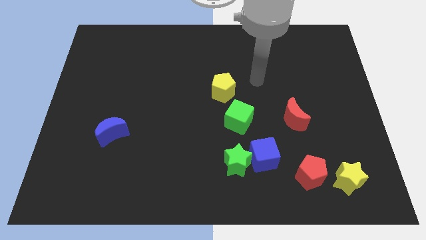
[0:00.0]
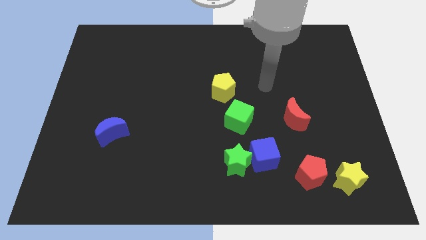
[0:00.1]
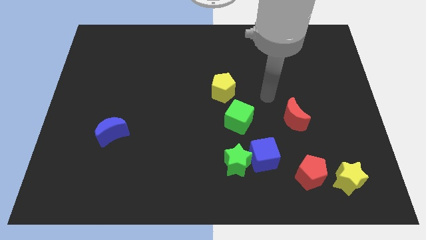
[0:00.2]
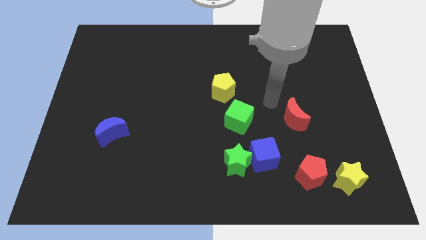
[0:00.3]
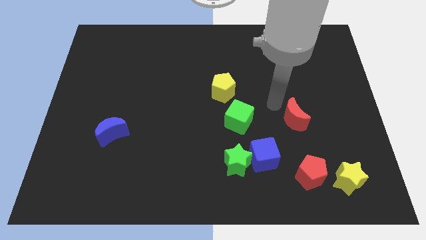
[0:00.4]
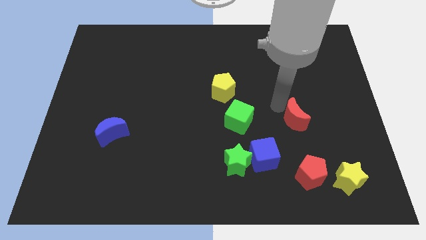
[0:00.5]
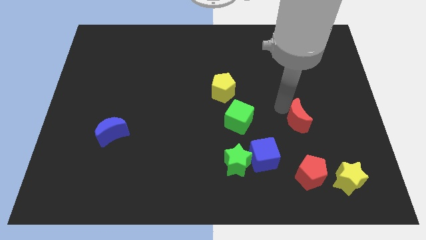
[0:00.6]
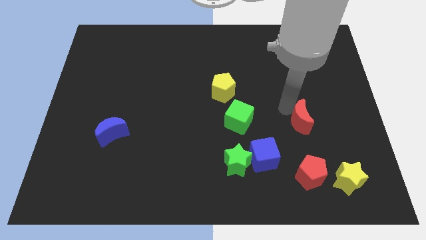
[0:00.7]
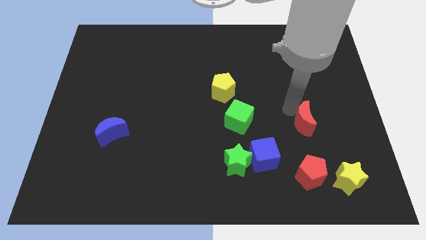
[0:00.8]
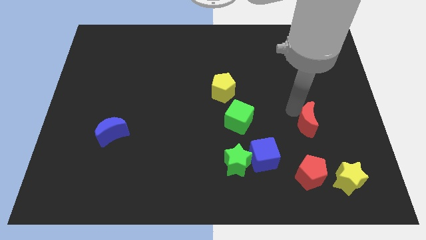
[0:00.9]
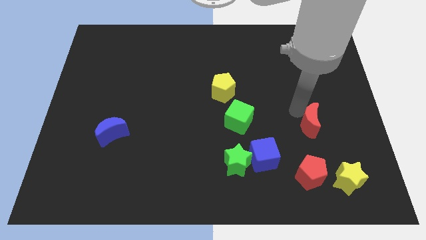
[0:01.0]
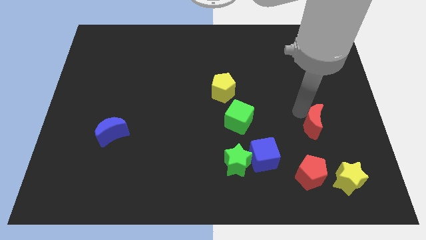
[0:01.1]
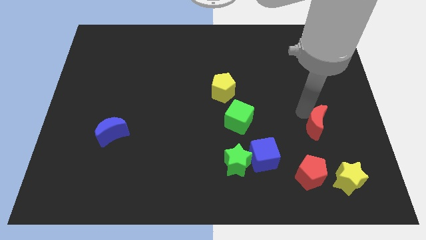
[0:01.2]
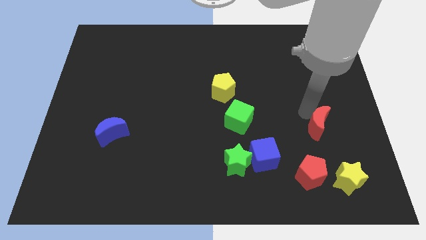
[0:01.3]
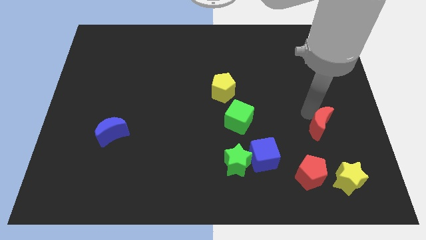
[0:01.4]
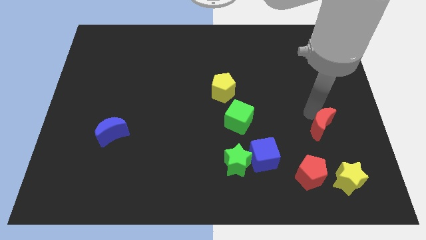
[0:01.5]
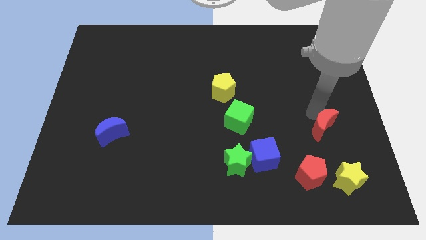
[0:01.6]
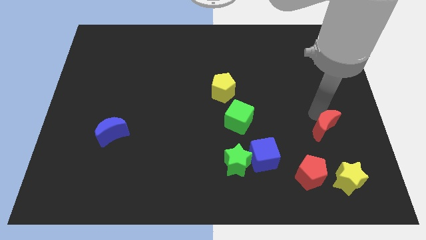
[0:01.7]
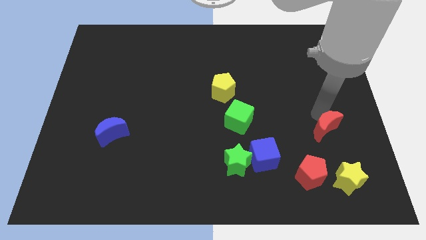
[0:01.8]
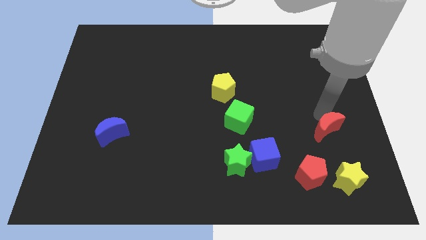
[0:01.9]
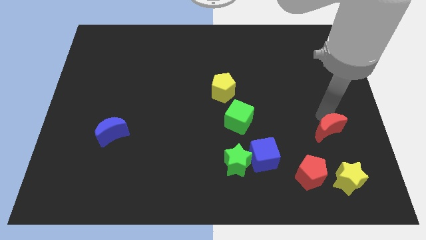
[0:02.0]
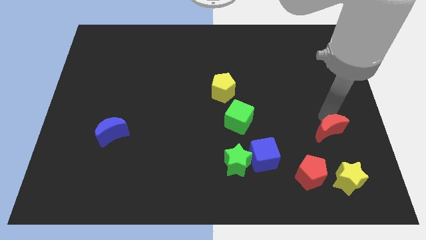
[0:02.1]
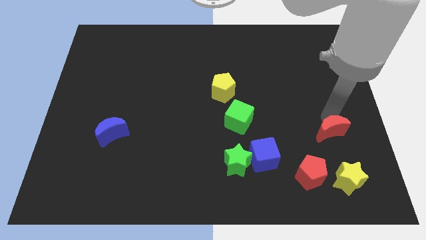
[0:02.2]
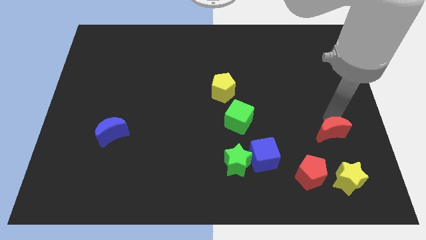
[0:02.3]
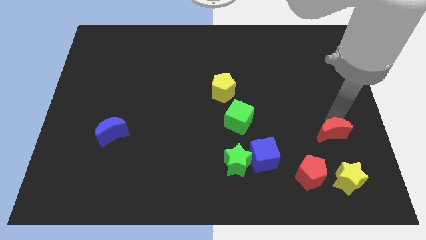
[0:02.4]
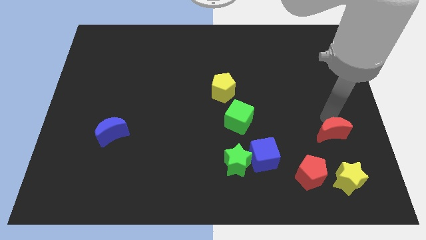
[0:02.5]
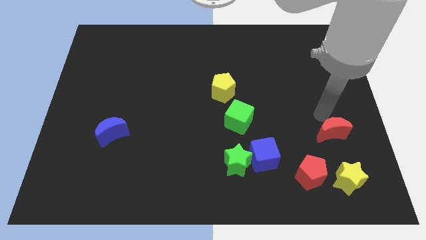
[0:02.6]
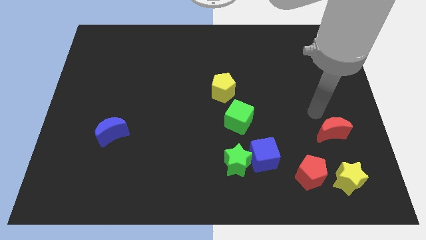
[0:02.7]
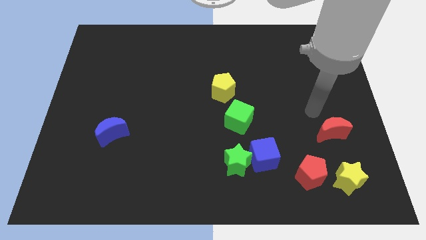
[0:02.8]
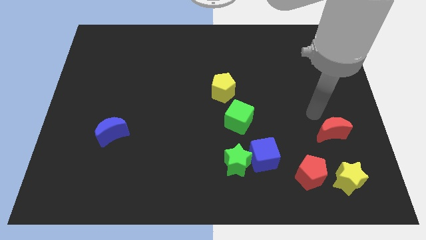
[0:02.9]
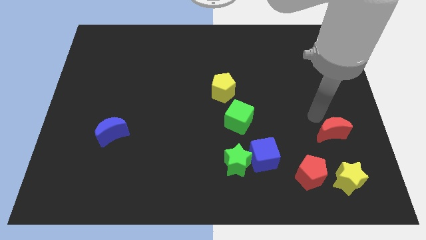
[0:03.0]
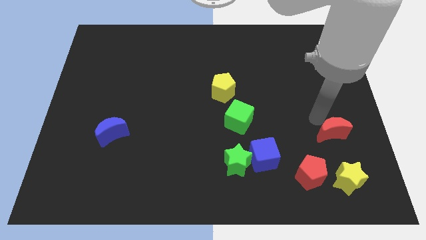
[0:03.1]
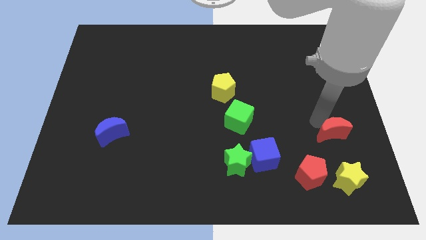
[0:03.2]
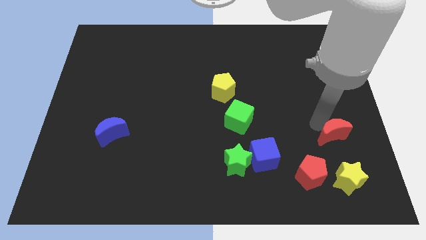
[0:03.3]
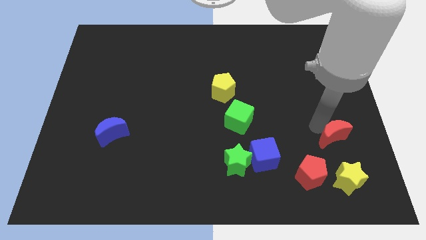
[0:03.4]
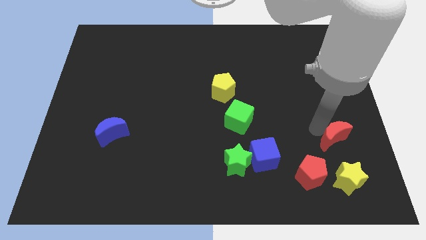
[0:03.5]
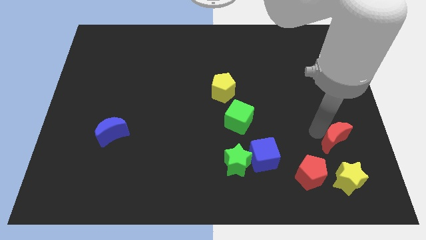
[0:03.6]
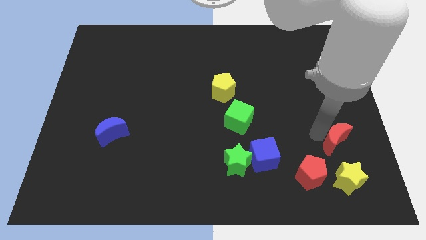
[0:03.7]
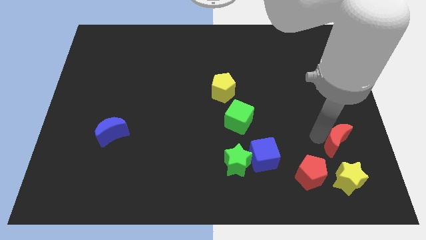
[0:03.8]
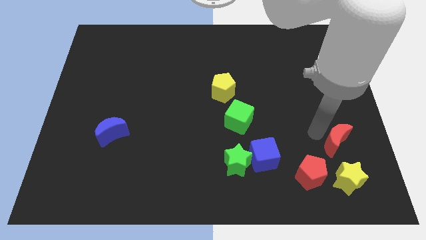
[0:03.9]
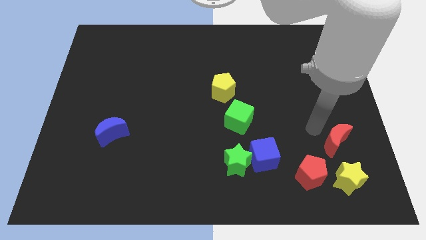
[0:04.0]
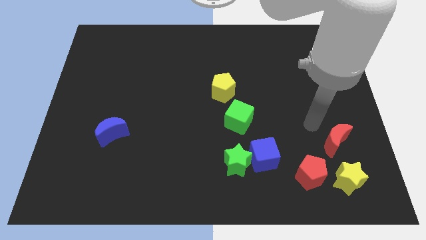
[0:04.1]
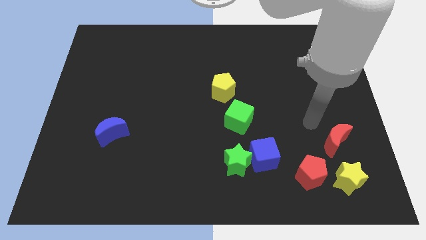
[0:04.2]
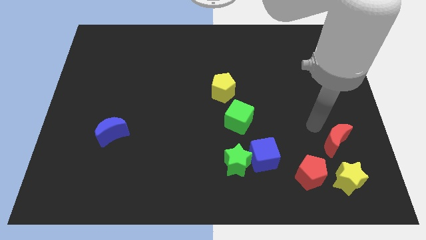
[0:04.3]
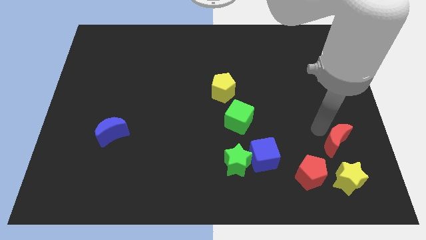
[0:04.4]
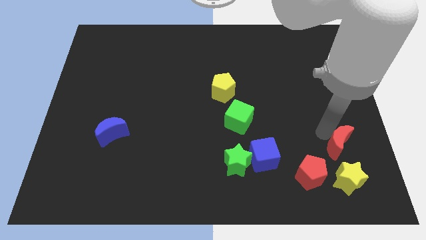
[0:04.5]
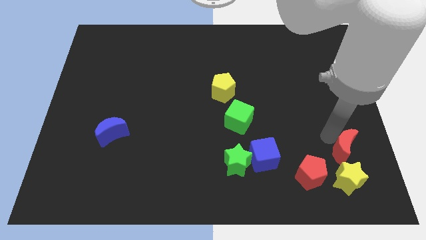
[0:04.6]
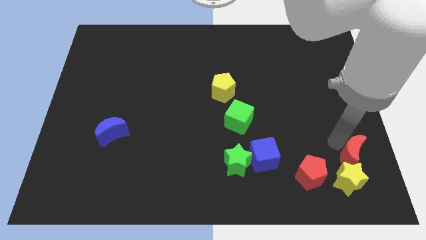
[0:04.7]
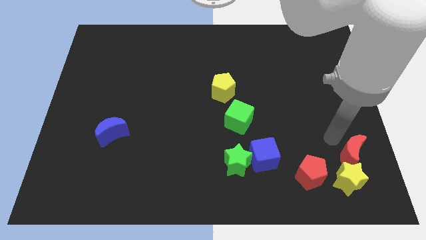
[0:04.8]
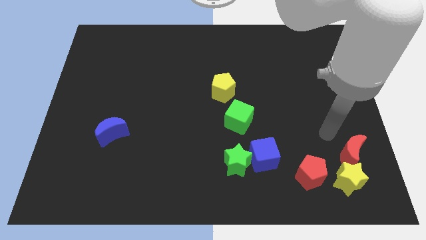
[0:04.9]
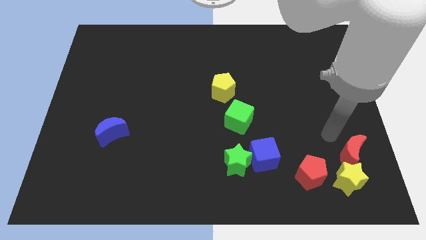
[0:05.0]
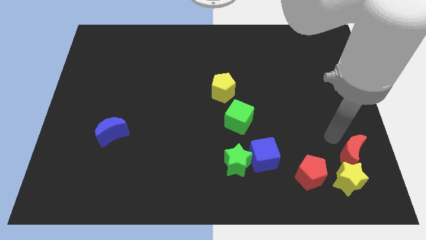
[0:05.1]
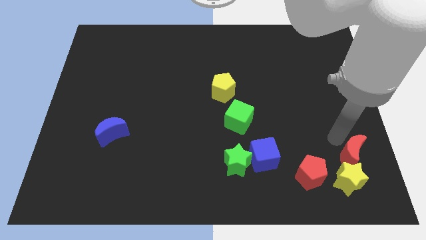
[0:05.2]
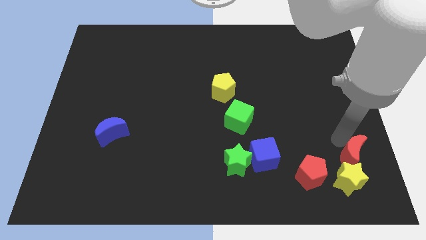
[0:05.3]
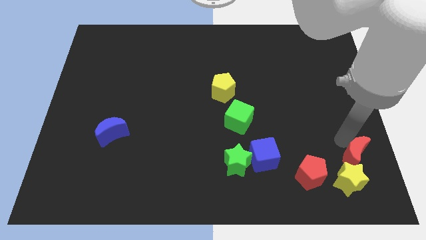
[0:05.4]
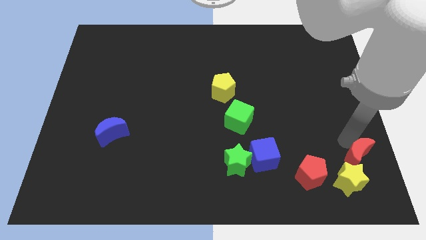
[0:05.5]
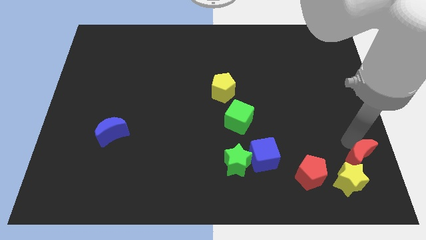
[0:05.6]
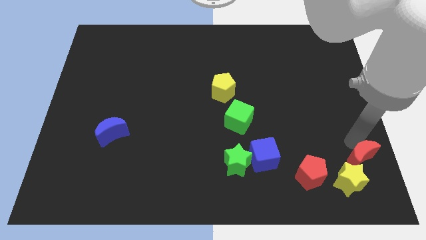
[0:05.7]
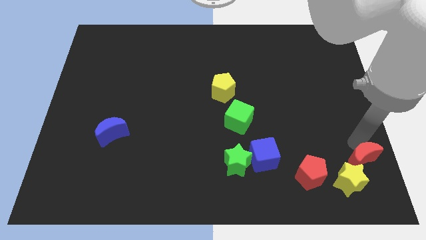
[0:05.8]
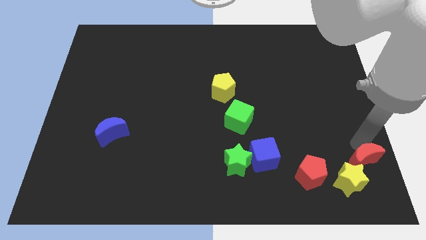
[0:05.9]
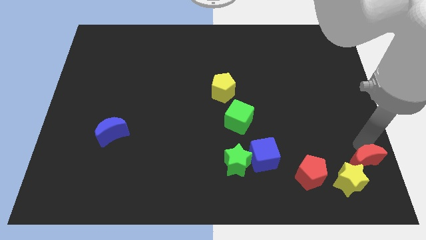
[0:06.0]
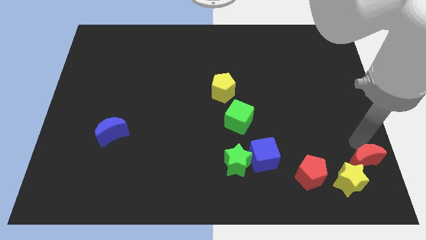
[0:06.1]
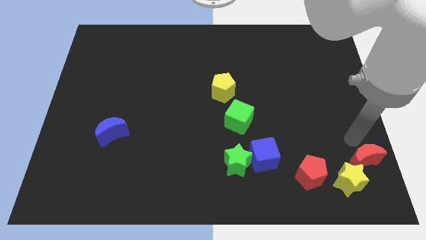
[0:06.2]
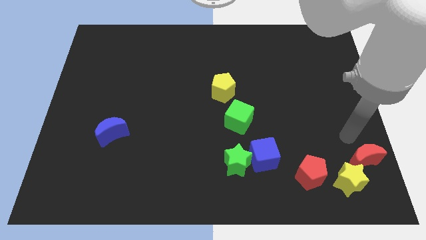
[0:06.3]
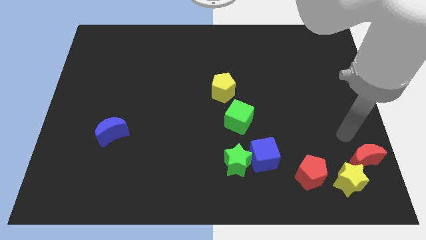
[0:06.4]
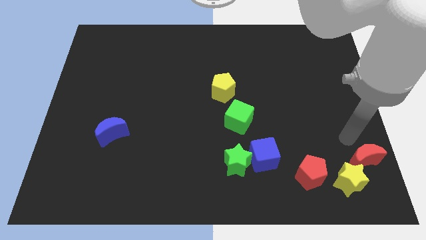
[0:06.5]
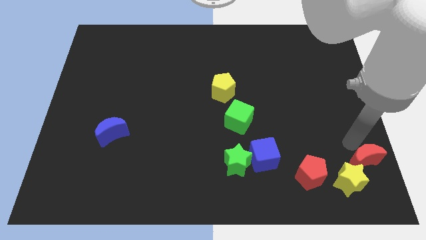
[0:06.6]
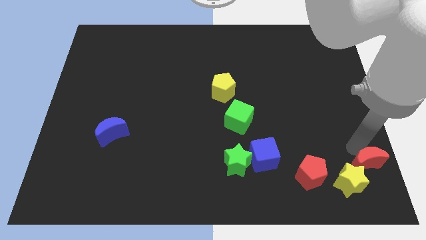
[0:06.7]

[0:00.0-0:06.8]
move the red moon to the lower right corner
